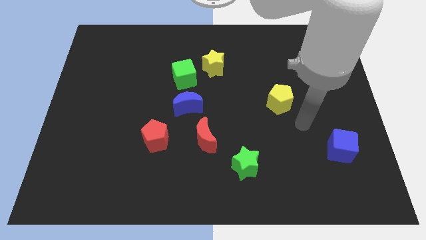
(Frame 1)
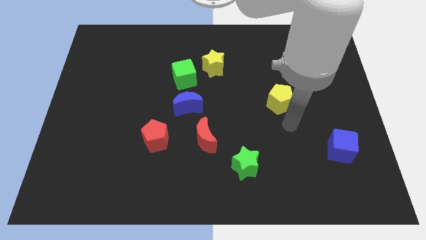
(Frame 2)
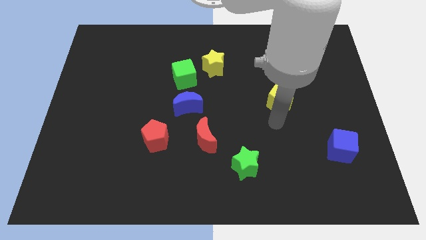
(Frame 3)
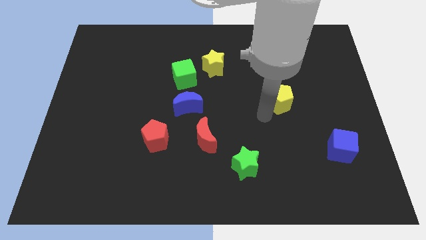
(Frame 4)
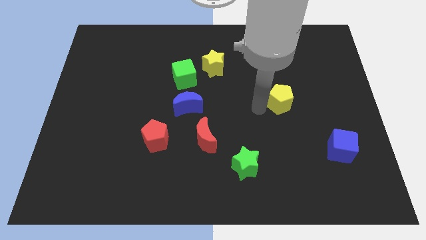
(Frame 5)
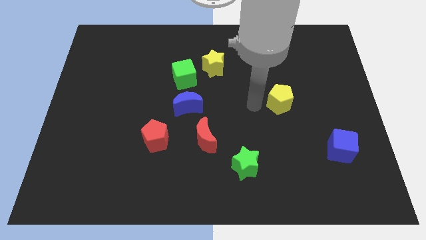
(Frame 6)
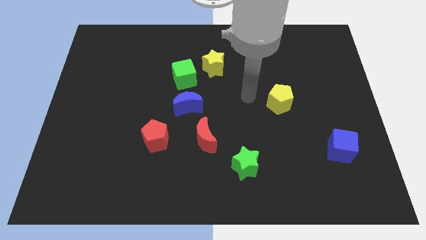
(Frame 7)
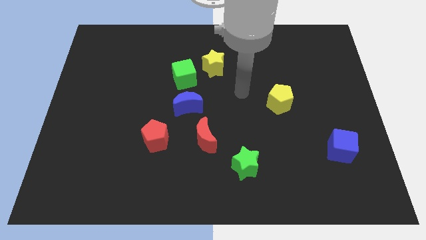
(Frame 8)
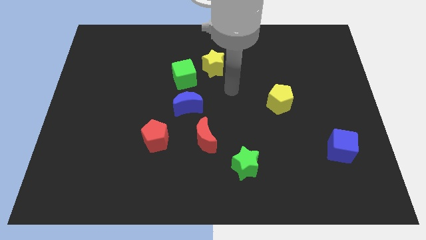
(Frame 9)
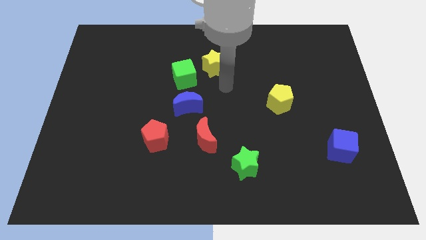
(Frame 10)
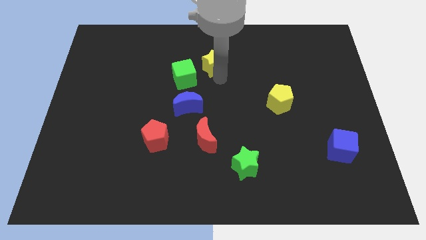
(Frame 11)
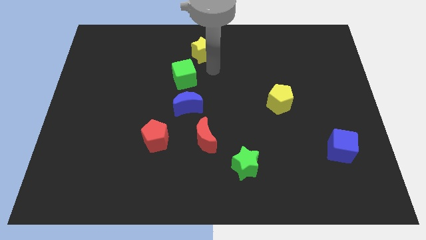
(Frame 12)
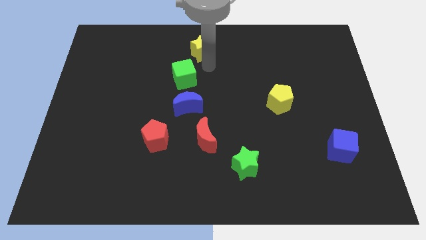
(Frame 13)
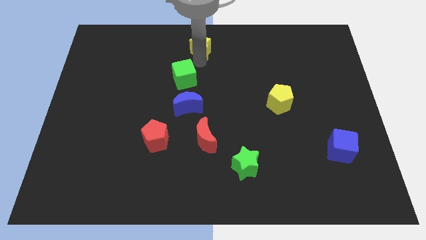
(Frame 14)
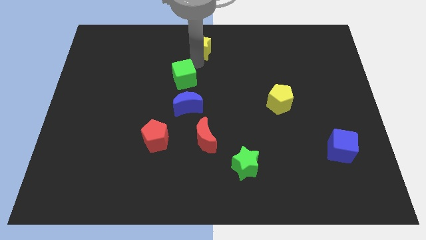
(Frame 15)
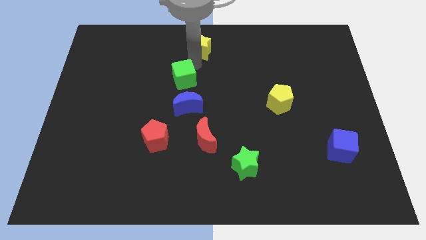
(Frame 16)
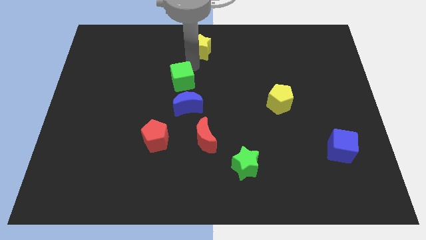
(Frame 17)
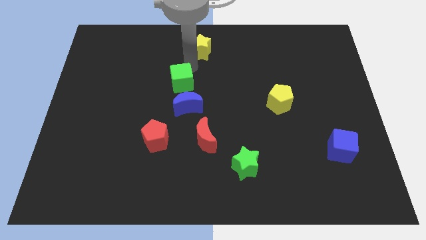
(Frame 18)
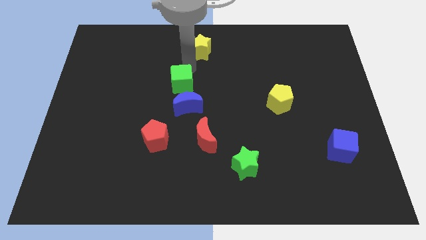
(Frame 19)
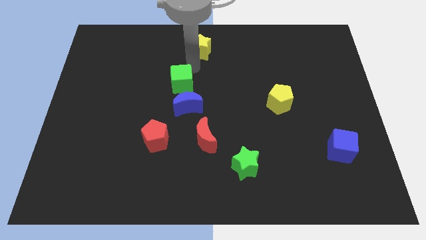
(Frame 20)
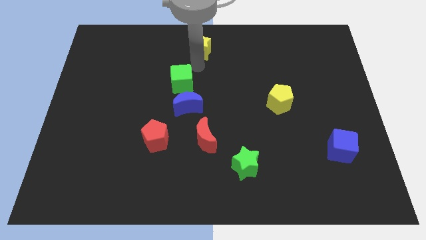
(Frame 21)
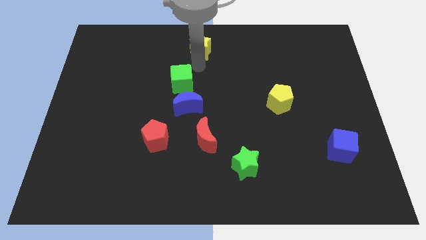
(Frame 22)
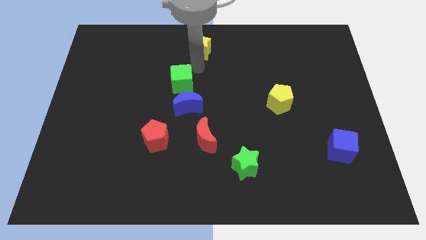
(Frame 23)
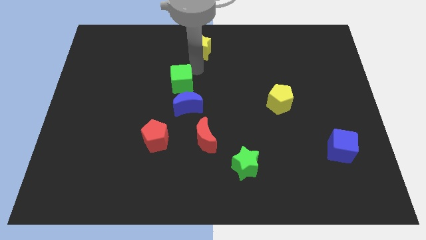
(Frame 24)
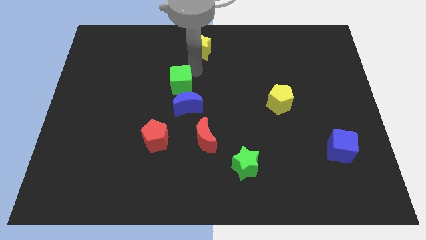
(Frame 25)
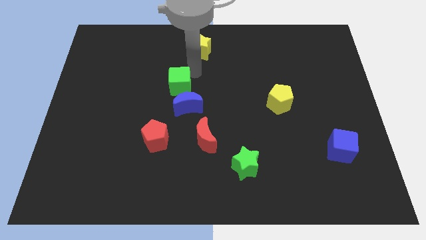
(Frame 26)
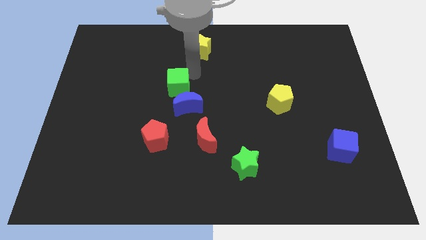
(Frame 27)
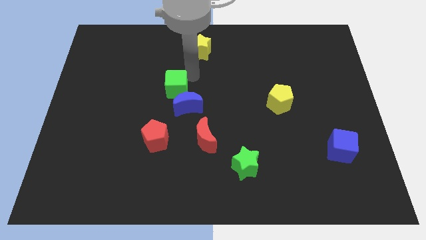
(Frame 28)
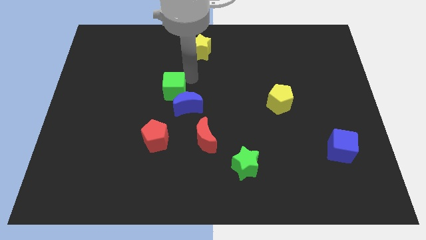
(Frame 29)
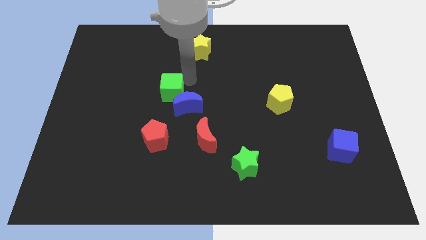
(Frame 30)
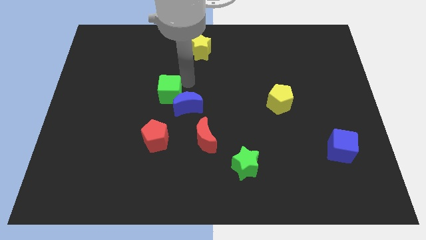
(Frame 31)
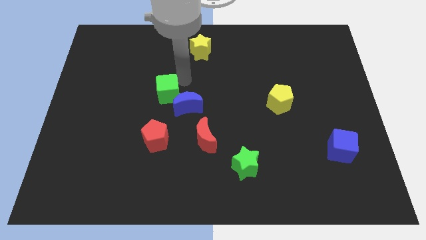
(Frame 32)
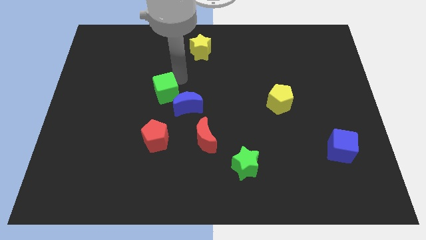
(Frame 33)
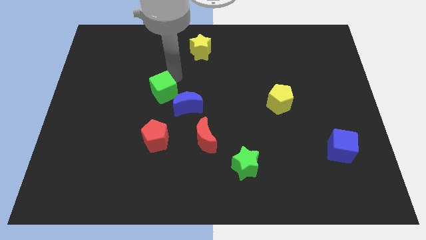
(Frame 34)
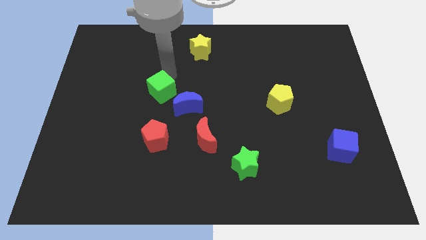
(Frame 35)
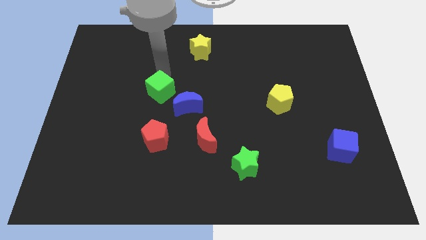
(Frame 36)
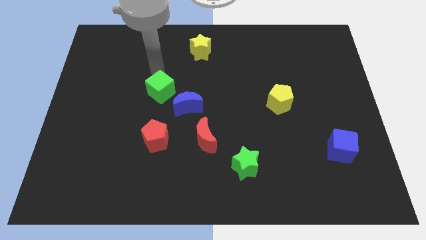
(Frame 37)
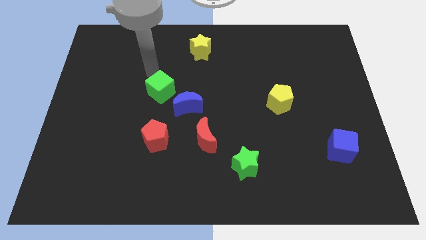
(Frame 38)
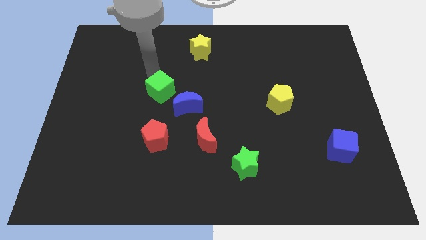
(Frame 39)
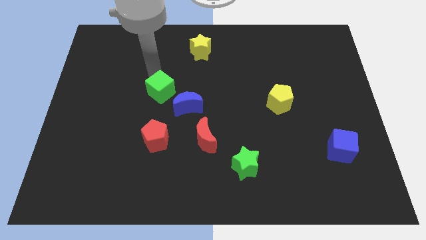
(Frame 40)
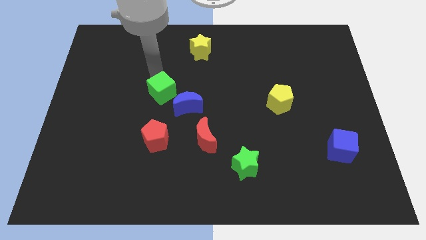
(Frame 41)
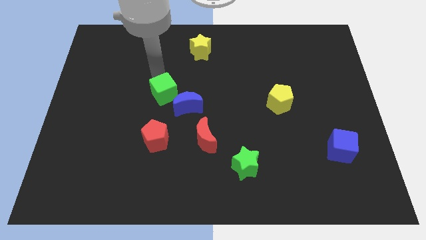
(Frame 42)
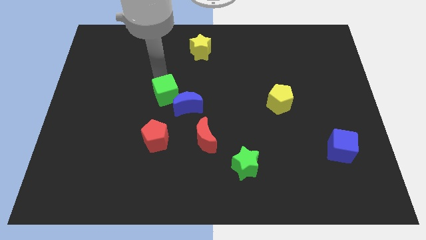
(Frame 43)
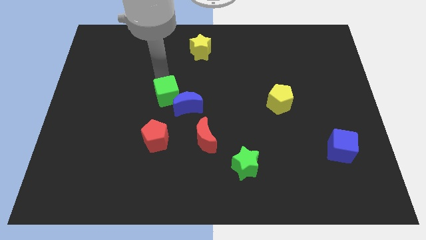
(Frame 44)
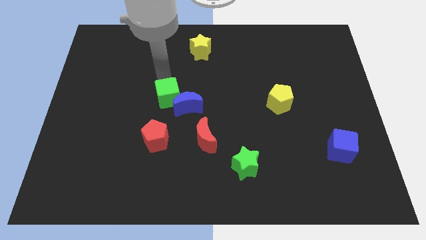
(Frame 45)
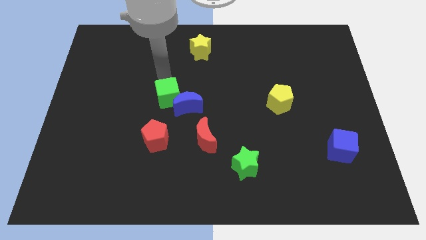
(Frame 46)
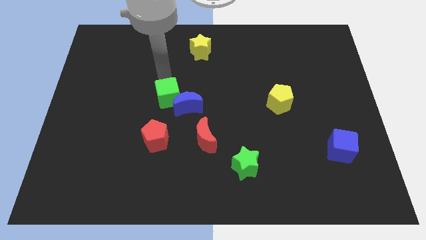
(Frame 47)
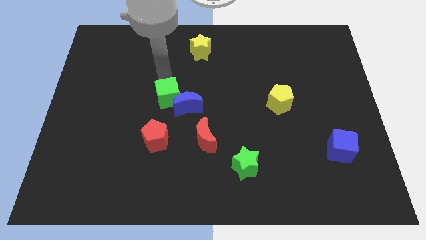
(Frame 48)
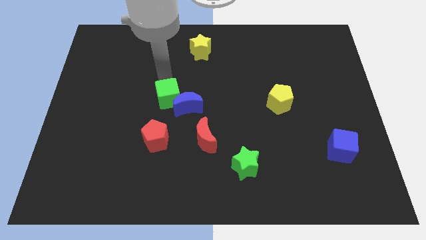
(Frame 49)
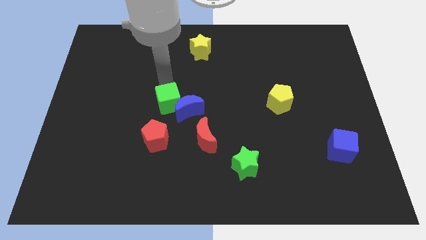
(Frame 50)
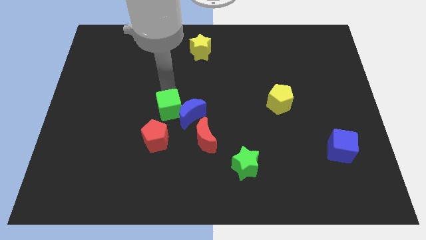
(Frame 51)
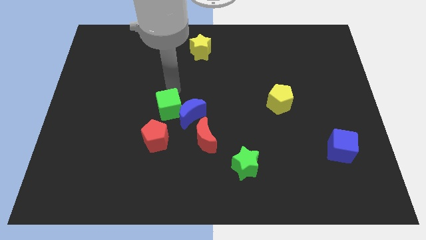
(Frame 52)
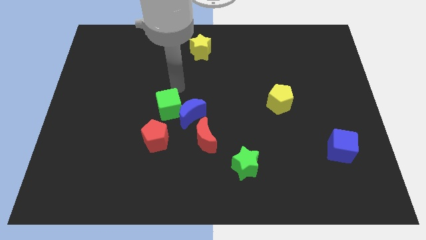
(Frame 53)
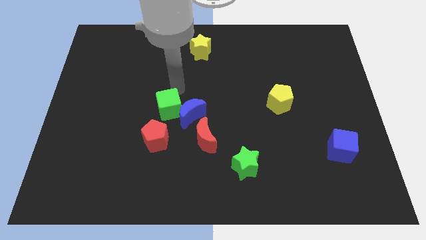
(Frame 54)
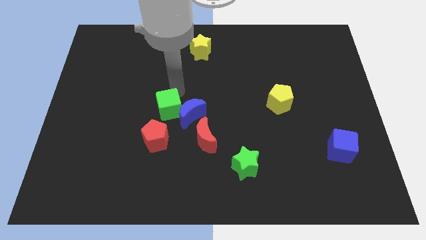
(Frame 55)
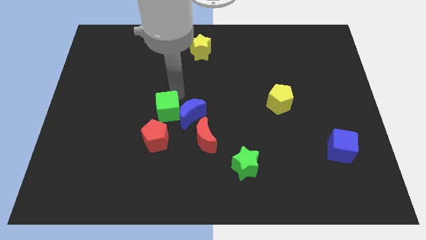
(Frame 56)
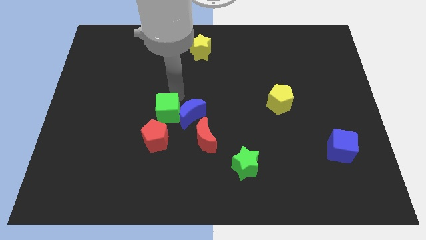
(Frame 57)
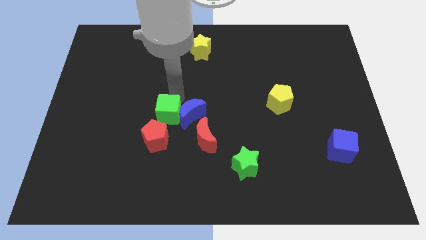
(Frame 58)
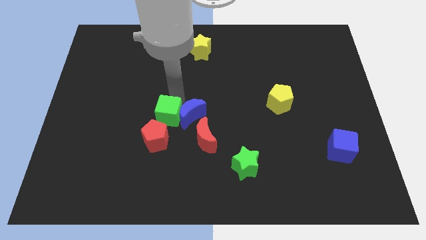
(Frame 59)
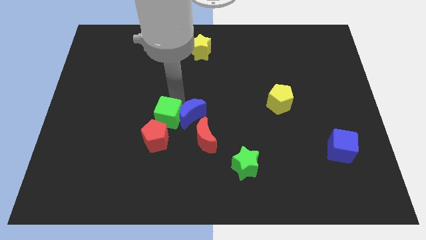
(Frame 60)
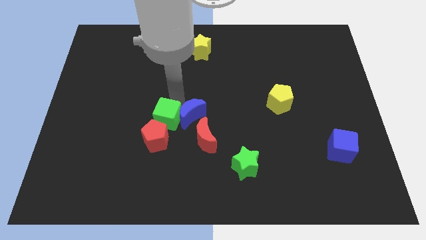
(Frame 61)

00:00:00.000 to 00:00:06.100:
slide the green cube towards the red pentagon

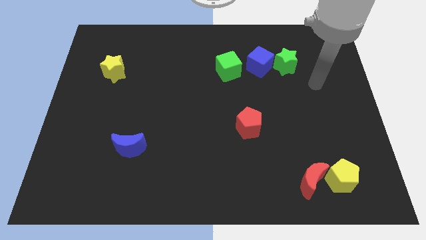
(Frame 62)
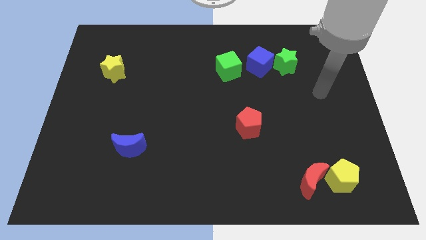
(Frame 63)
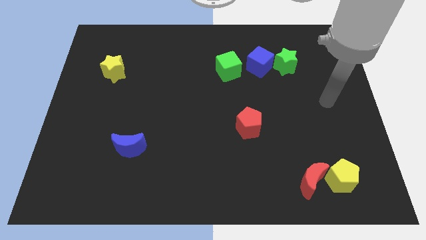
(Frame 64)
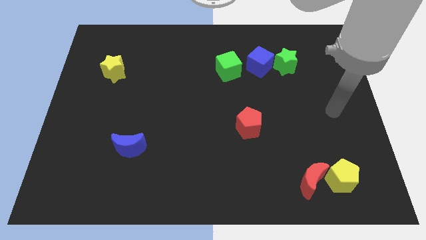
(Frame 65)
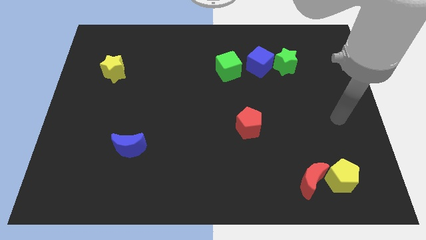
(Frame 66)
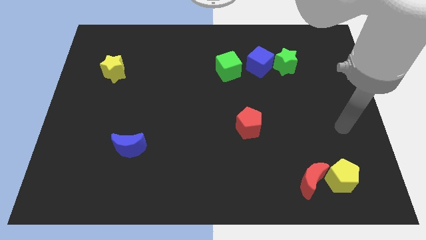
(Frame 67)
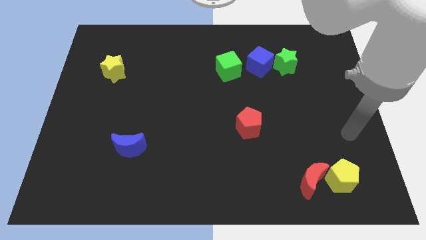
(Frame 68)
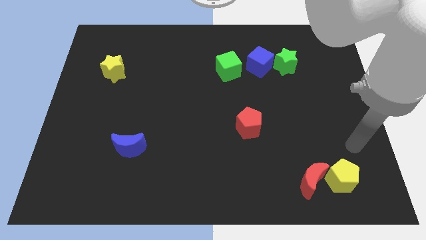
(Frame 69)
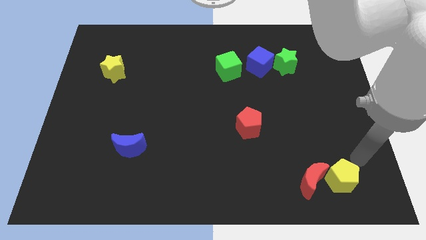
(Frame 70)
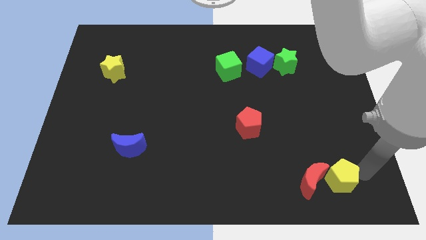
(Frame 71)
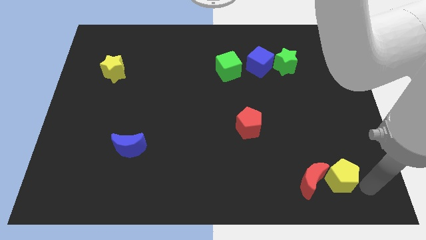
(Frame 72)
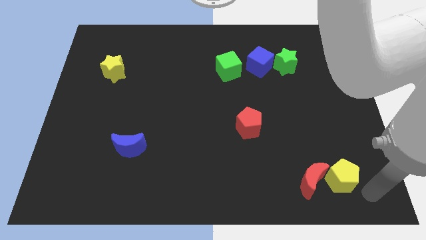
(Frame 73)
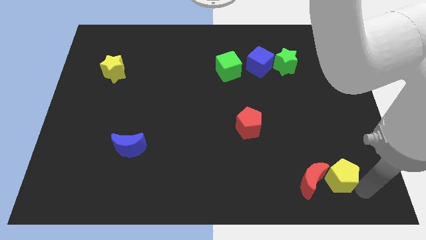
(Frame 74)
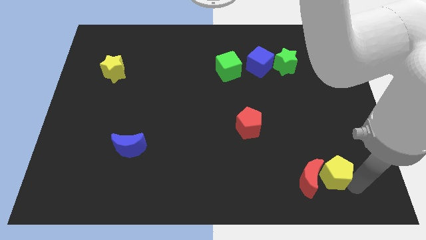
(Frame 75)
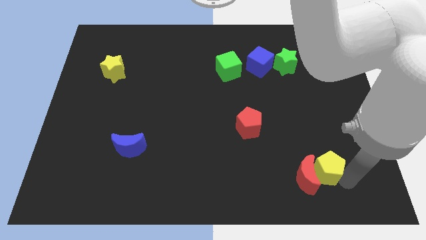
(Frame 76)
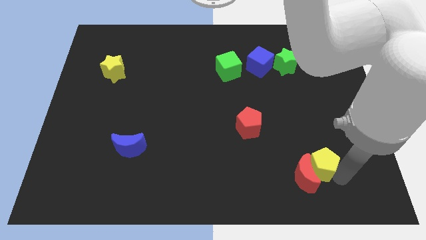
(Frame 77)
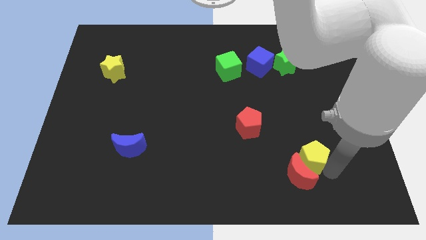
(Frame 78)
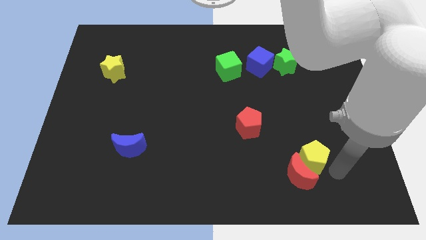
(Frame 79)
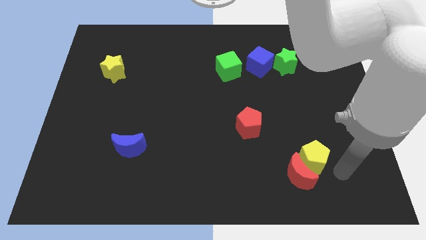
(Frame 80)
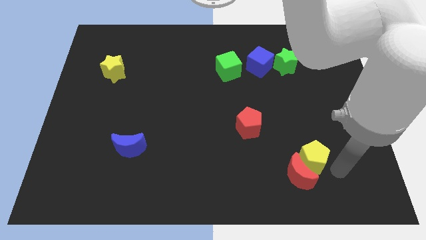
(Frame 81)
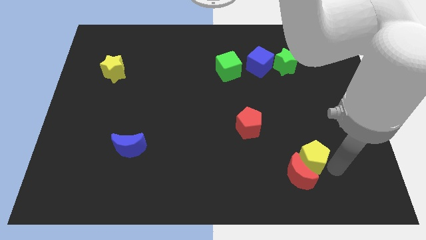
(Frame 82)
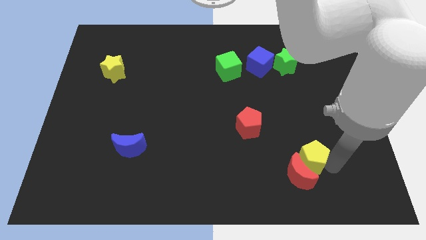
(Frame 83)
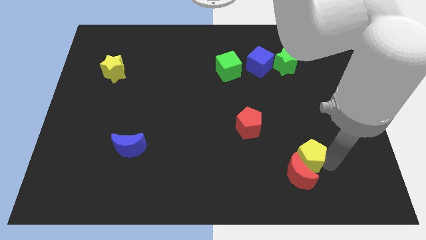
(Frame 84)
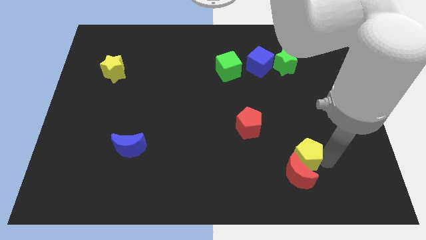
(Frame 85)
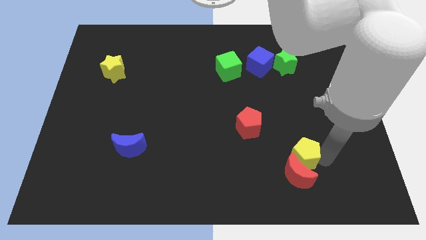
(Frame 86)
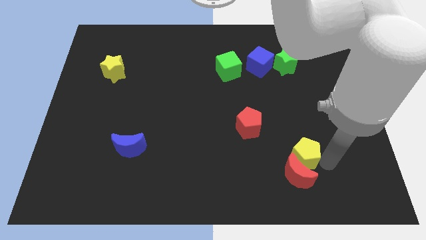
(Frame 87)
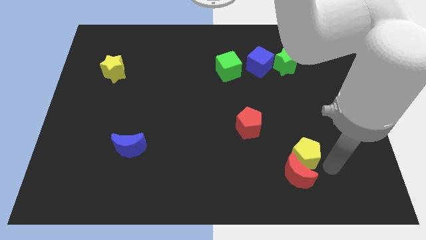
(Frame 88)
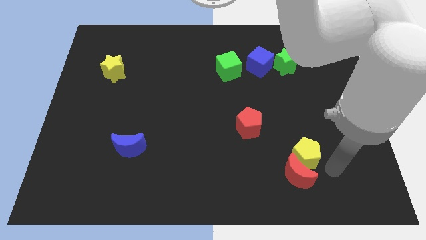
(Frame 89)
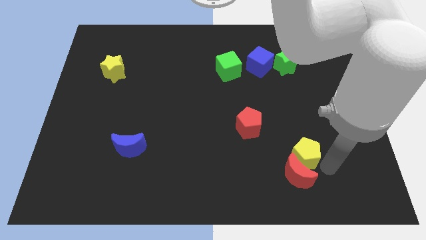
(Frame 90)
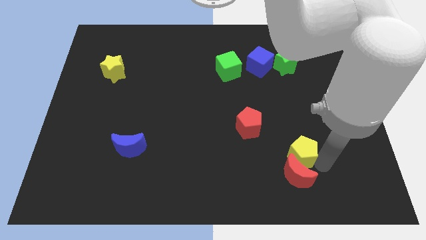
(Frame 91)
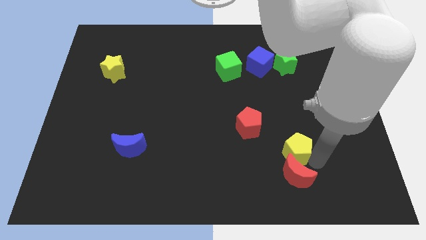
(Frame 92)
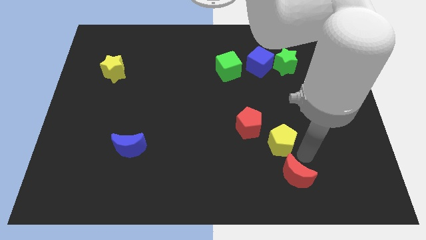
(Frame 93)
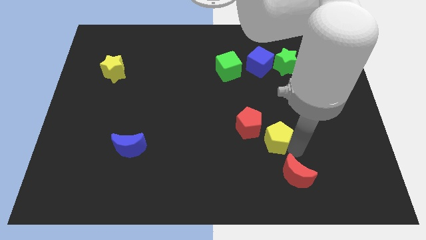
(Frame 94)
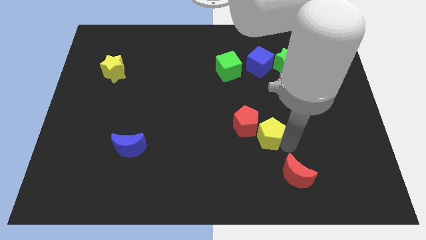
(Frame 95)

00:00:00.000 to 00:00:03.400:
put the yellow pentagon next to the red pentagon
